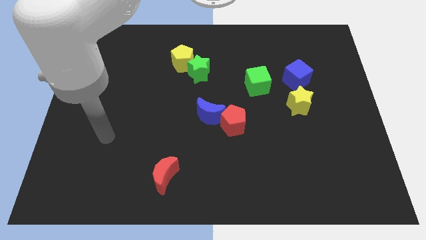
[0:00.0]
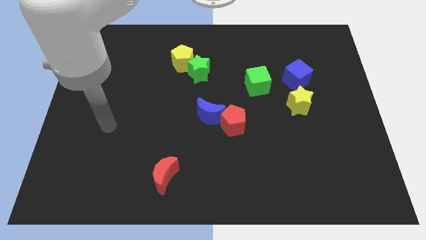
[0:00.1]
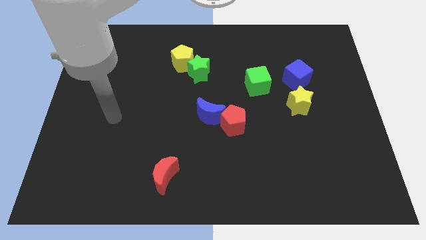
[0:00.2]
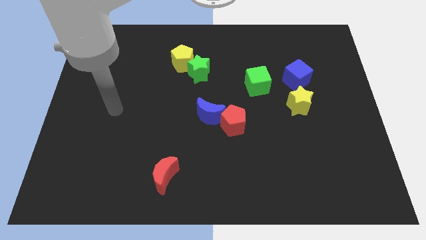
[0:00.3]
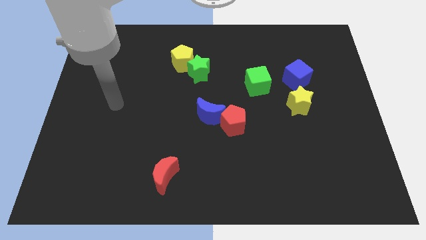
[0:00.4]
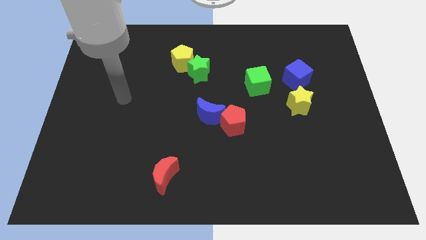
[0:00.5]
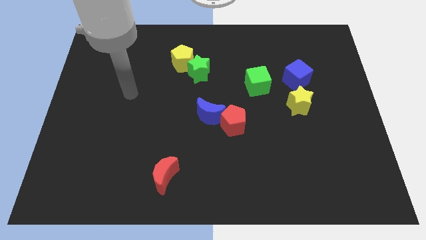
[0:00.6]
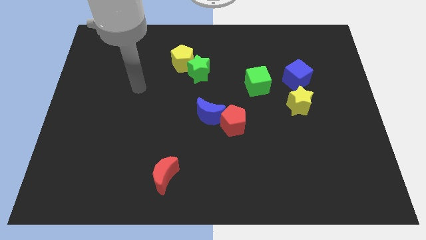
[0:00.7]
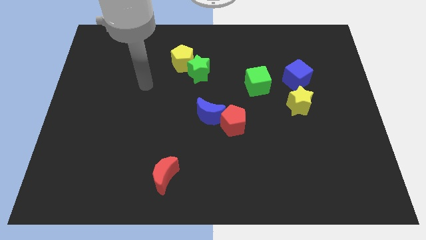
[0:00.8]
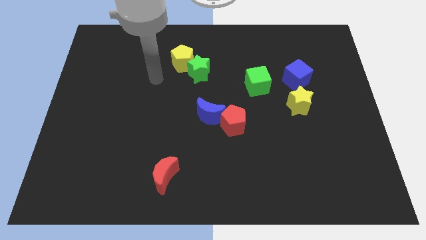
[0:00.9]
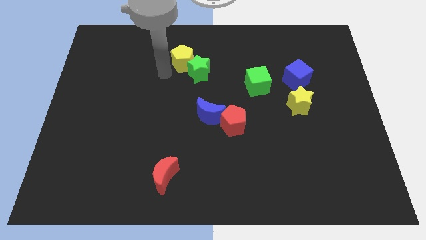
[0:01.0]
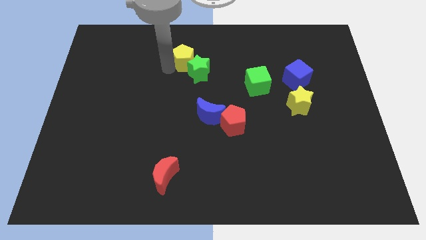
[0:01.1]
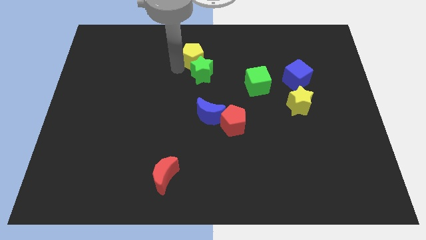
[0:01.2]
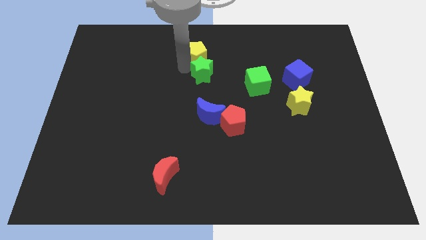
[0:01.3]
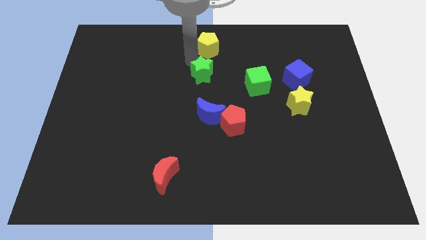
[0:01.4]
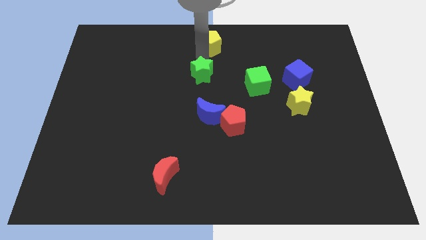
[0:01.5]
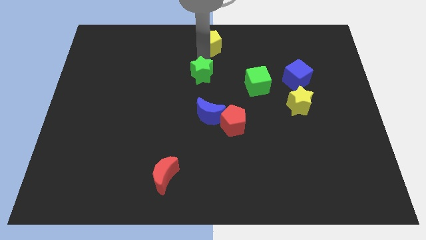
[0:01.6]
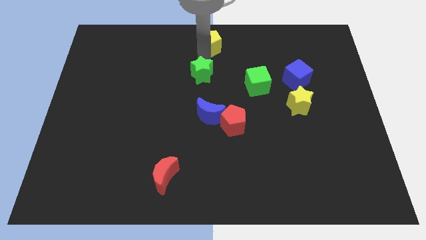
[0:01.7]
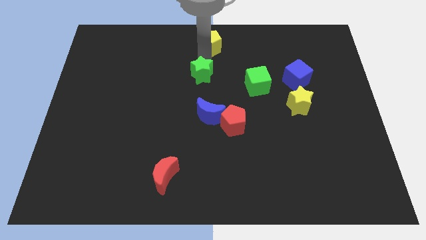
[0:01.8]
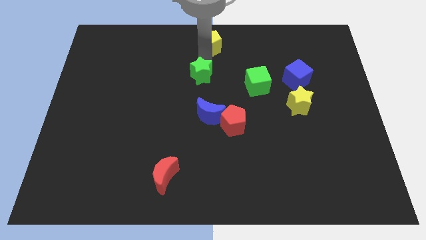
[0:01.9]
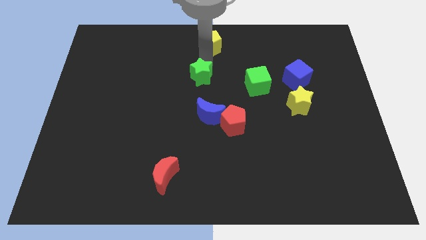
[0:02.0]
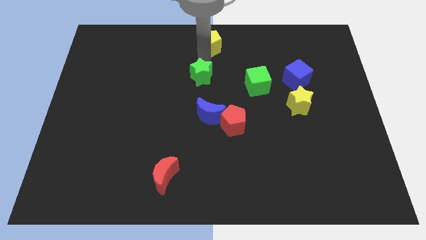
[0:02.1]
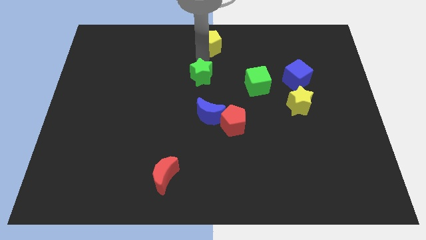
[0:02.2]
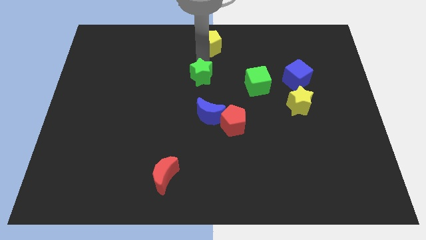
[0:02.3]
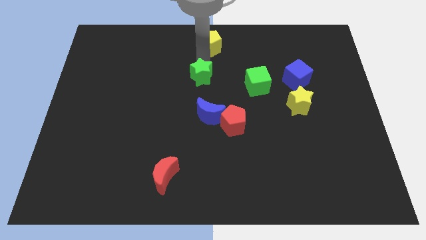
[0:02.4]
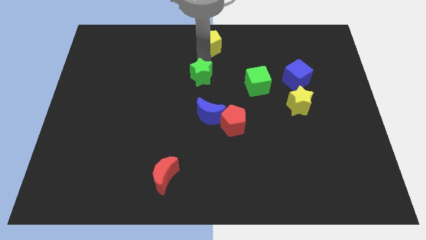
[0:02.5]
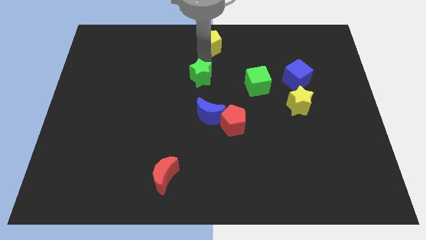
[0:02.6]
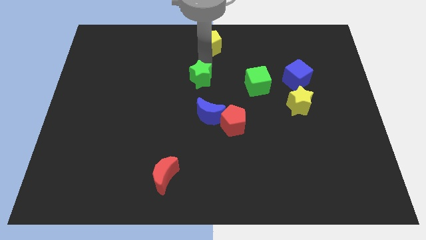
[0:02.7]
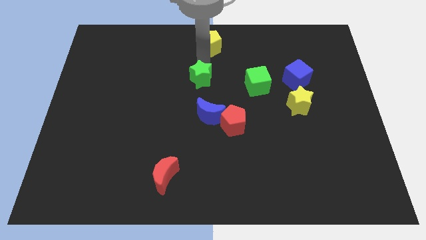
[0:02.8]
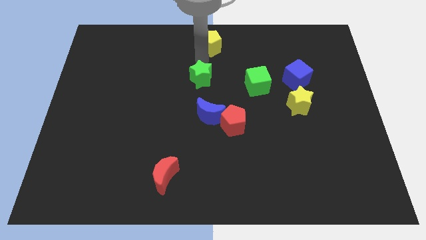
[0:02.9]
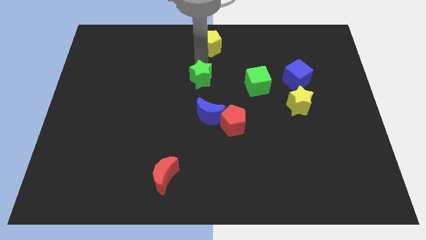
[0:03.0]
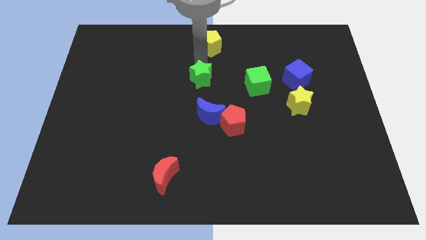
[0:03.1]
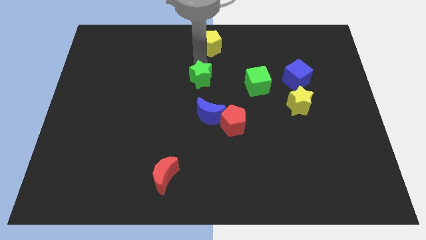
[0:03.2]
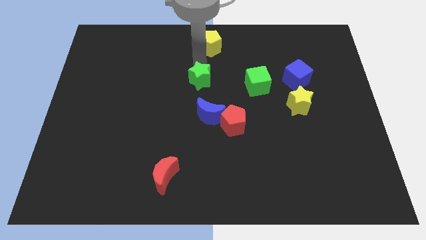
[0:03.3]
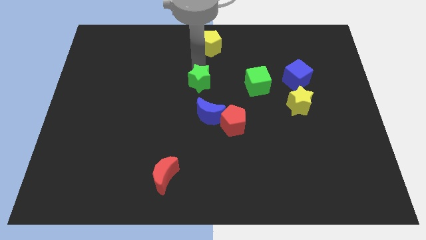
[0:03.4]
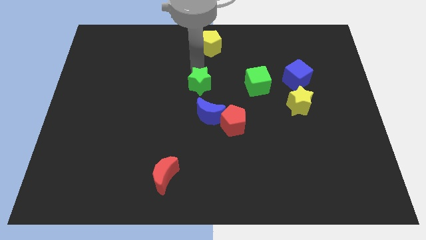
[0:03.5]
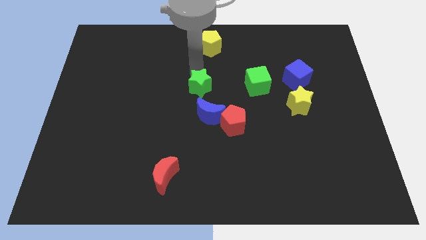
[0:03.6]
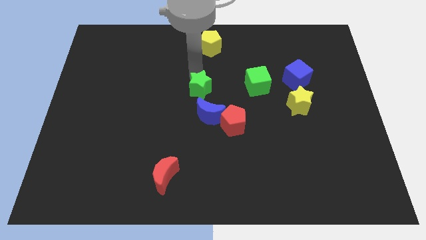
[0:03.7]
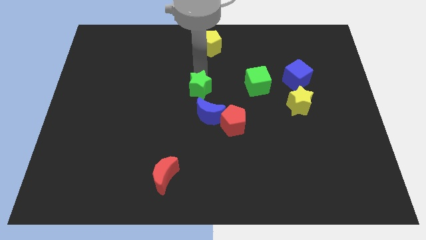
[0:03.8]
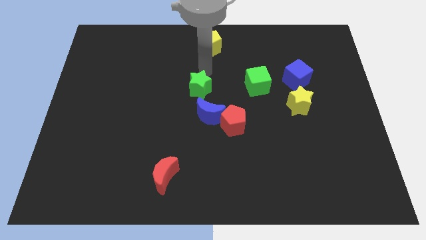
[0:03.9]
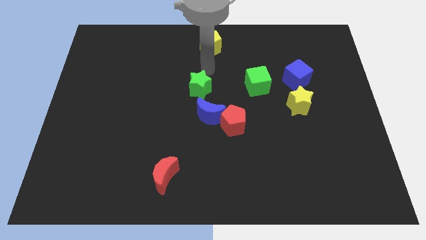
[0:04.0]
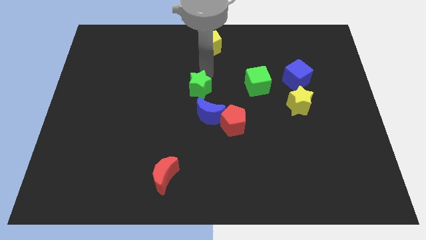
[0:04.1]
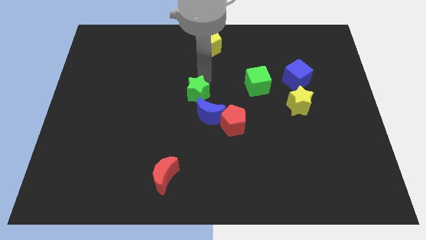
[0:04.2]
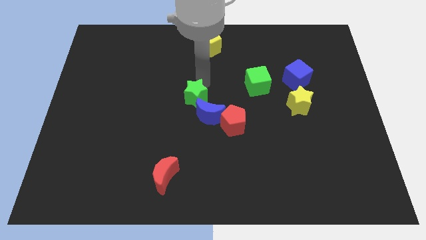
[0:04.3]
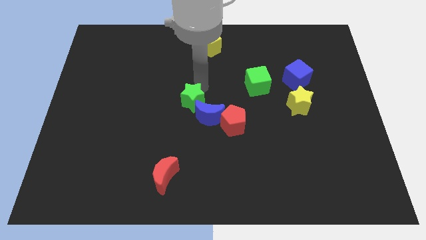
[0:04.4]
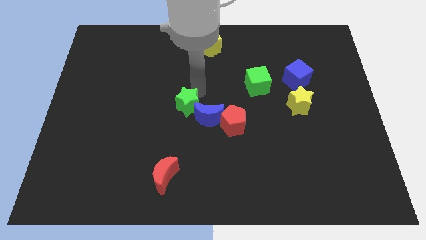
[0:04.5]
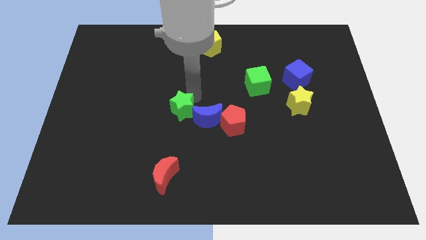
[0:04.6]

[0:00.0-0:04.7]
put the green star left of the red pentagon

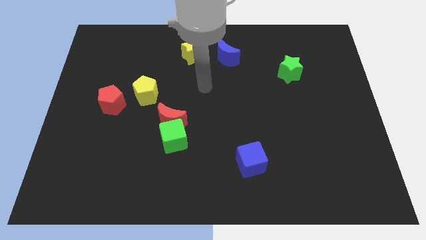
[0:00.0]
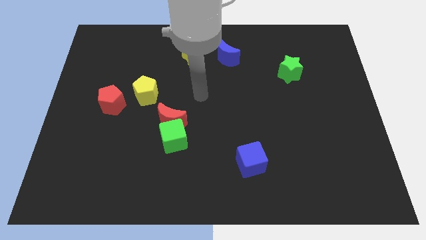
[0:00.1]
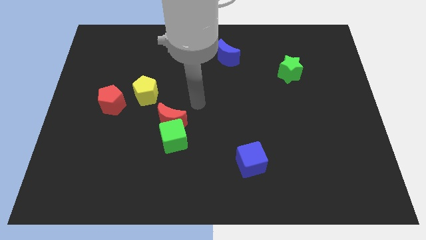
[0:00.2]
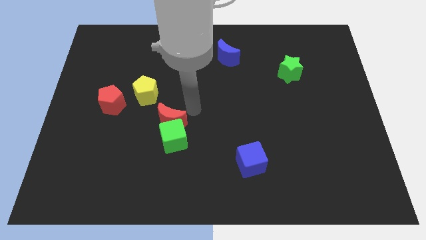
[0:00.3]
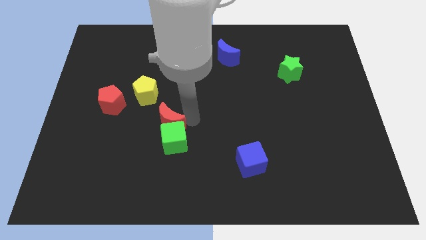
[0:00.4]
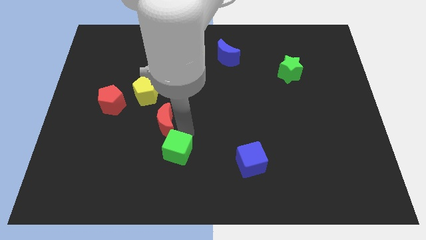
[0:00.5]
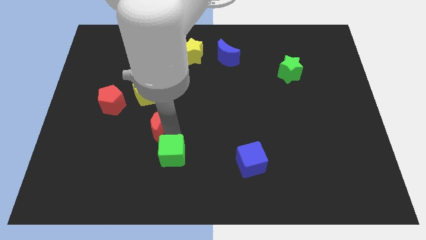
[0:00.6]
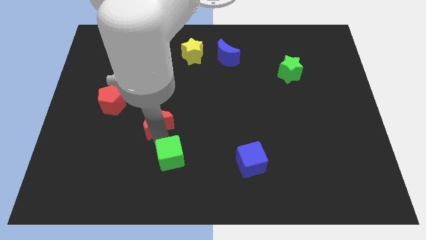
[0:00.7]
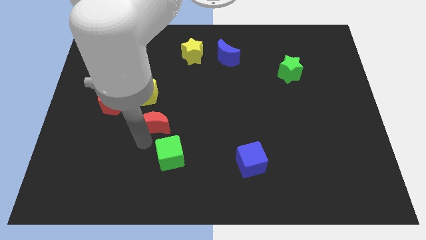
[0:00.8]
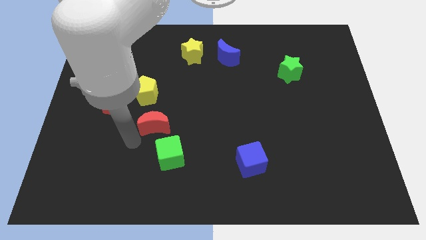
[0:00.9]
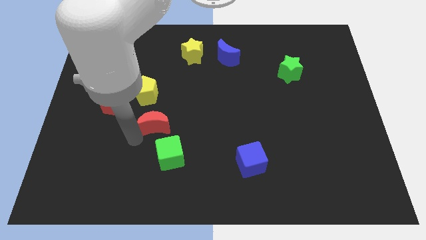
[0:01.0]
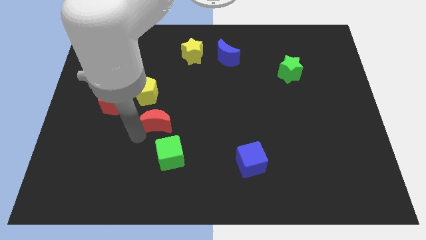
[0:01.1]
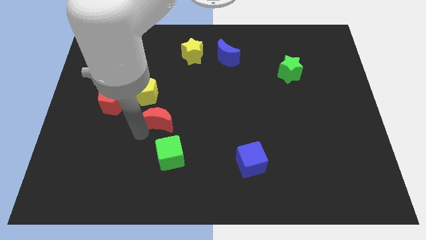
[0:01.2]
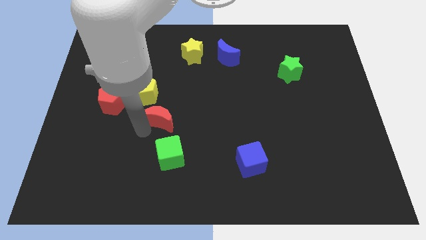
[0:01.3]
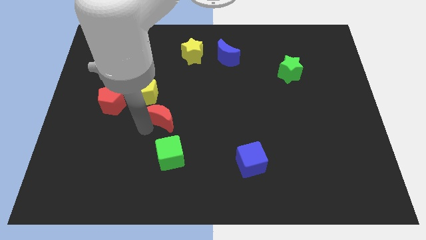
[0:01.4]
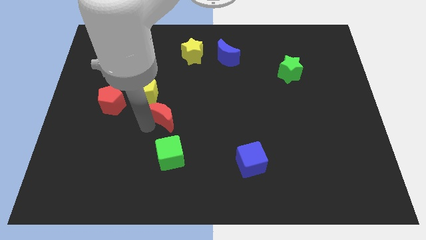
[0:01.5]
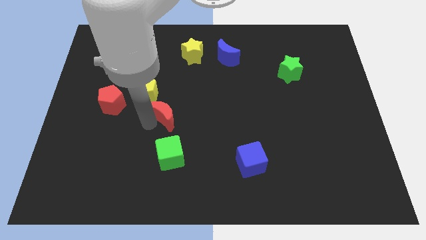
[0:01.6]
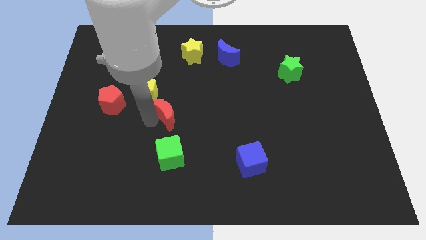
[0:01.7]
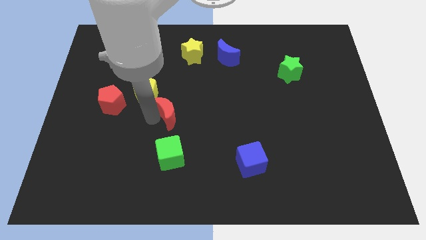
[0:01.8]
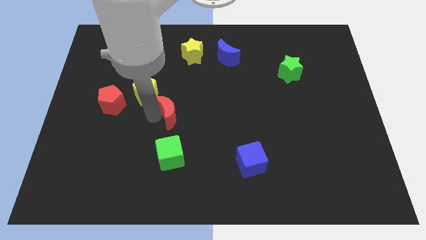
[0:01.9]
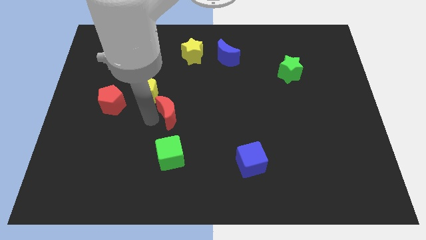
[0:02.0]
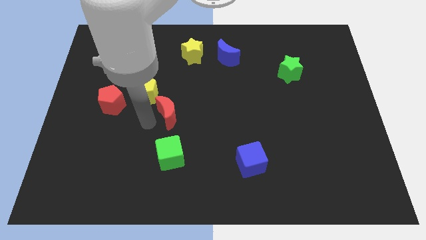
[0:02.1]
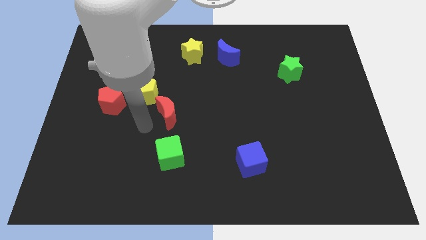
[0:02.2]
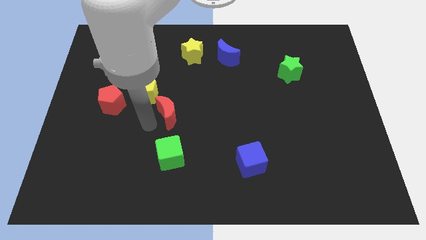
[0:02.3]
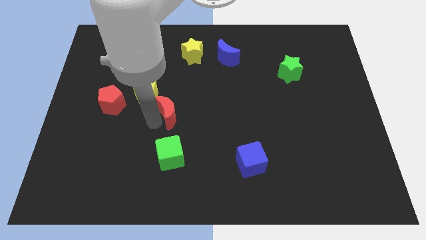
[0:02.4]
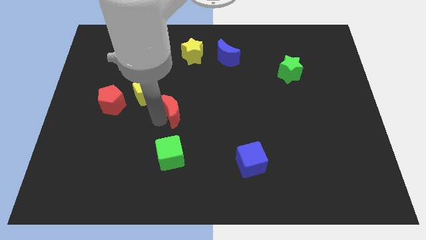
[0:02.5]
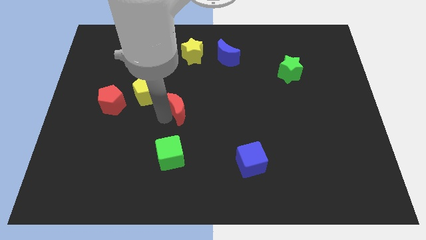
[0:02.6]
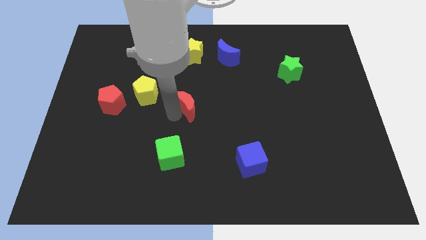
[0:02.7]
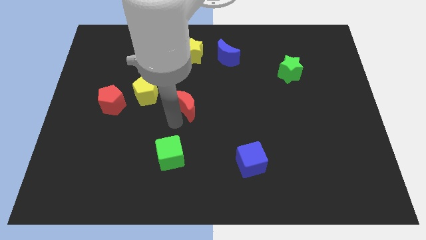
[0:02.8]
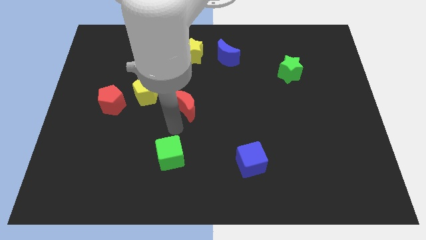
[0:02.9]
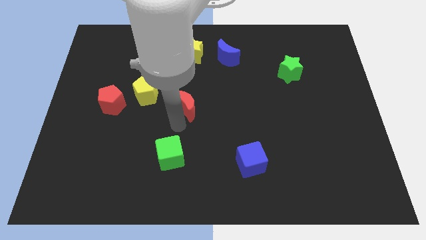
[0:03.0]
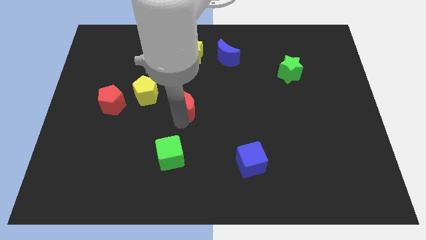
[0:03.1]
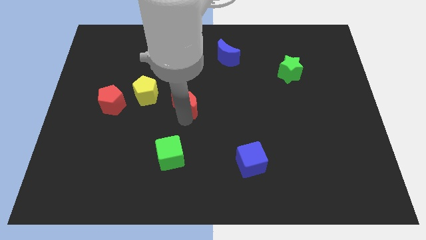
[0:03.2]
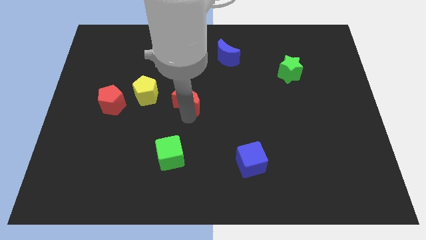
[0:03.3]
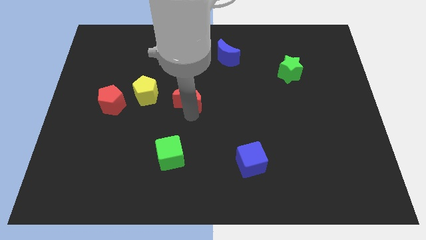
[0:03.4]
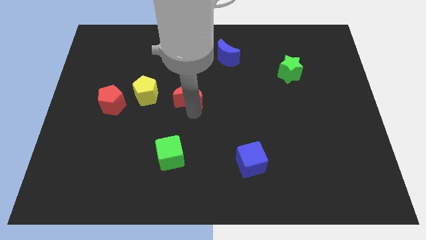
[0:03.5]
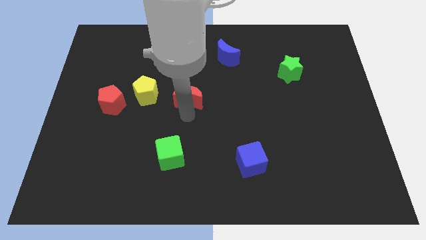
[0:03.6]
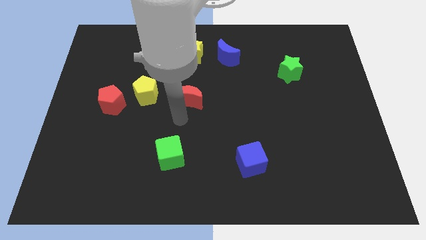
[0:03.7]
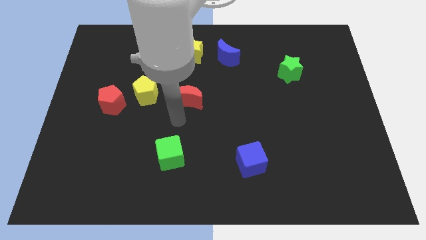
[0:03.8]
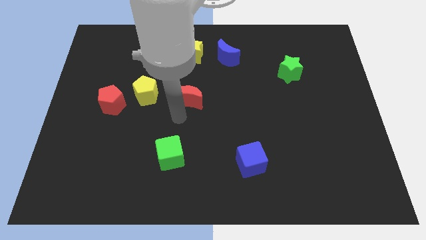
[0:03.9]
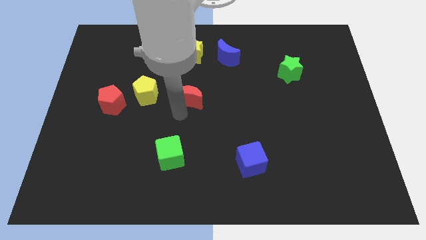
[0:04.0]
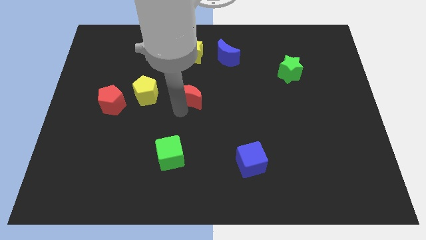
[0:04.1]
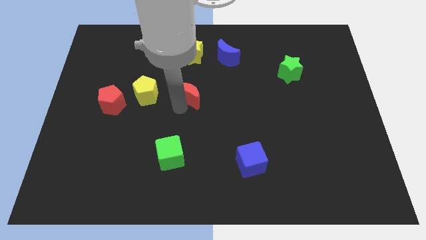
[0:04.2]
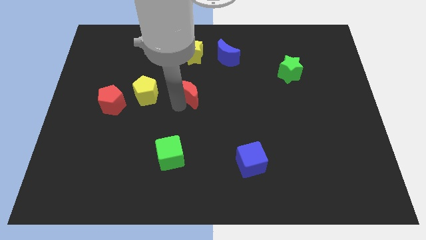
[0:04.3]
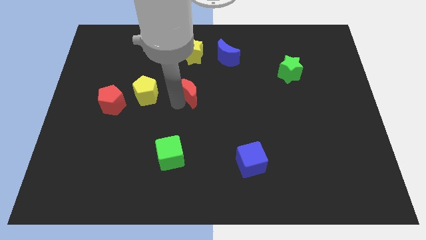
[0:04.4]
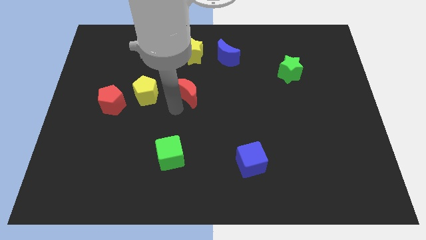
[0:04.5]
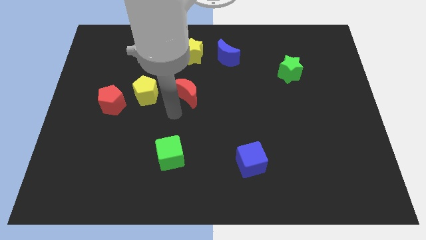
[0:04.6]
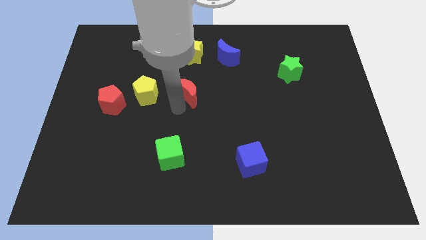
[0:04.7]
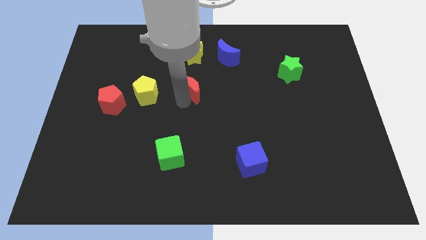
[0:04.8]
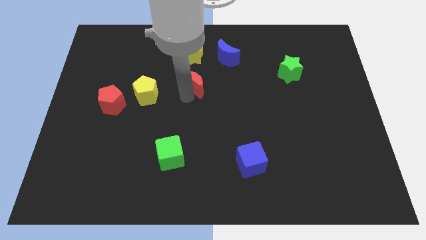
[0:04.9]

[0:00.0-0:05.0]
slide the red moon to the bottom left side of the blue moon
